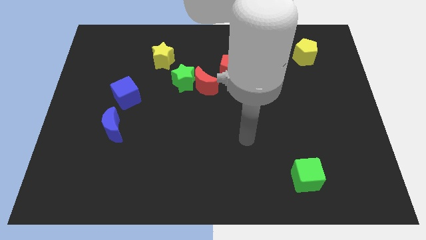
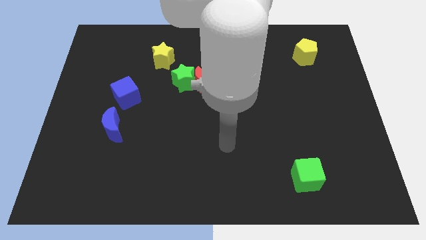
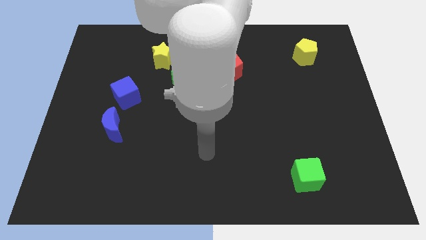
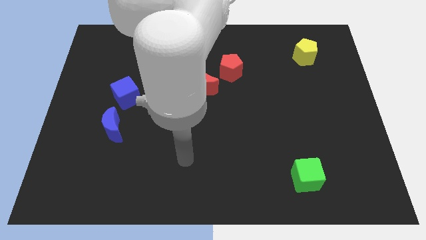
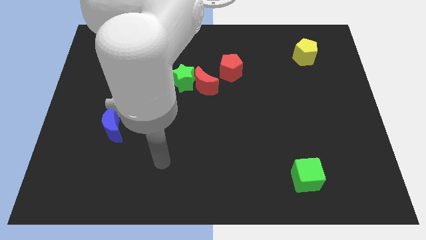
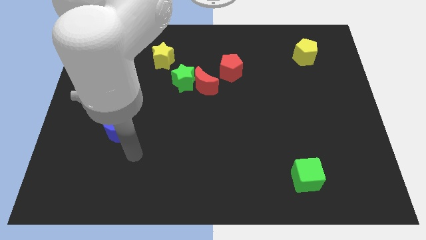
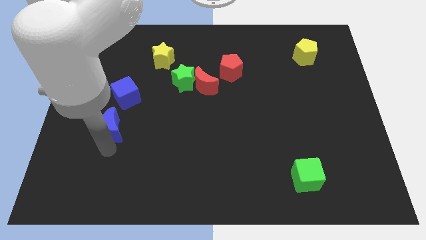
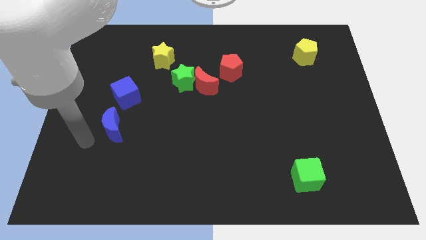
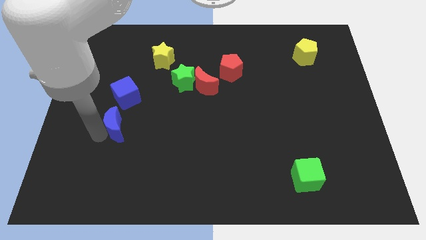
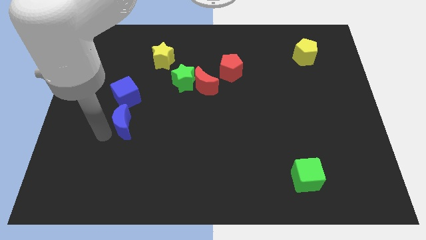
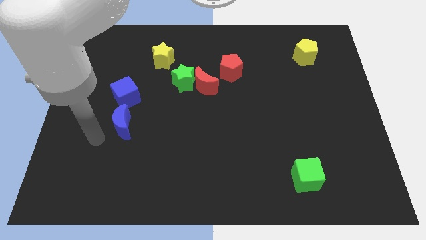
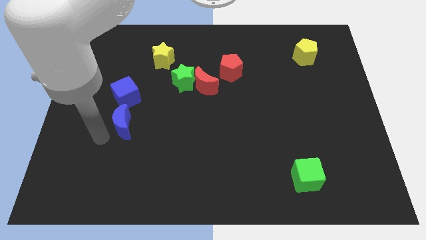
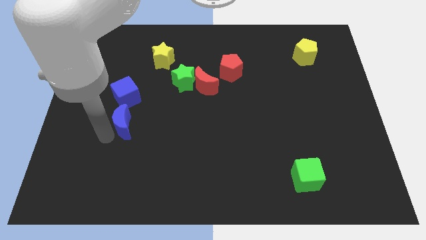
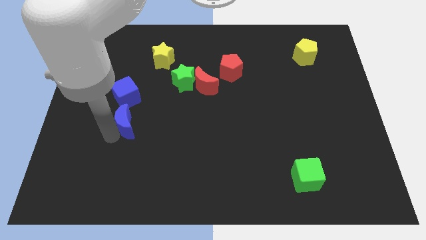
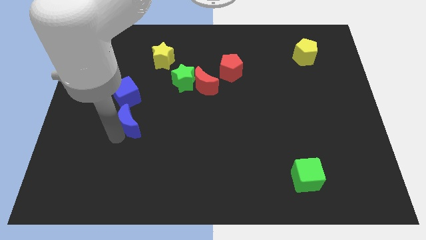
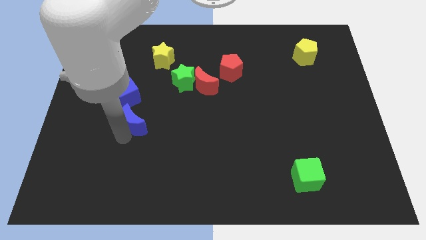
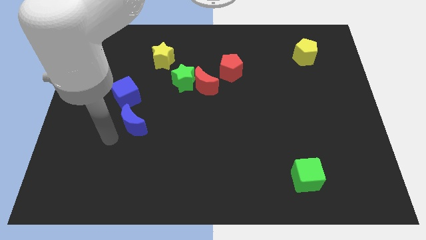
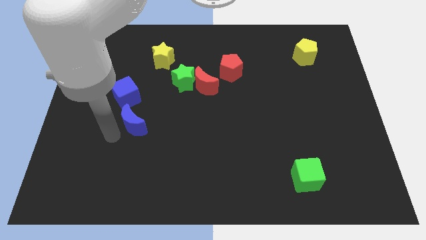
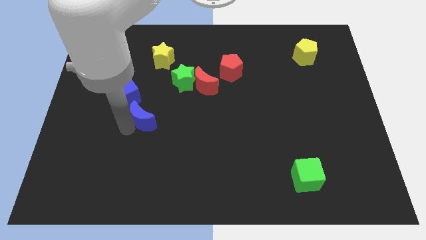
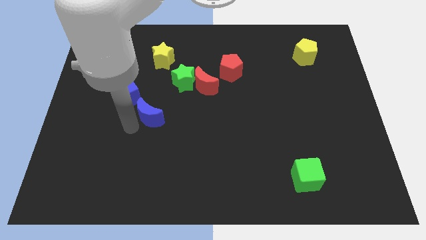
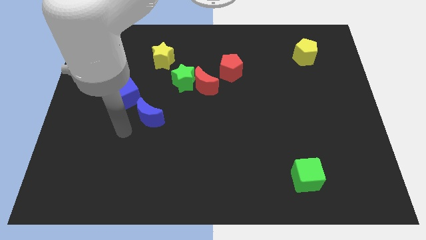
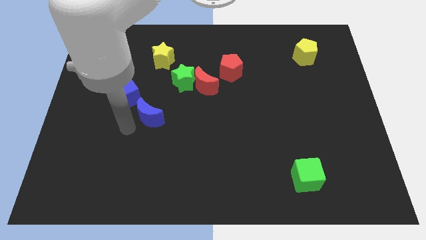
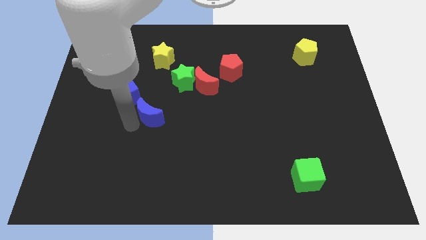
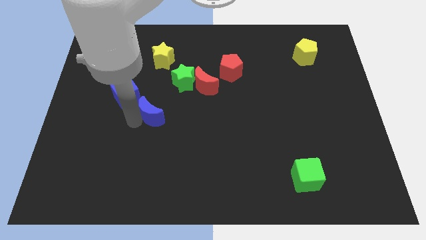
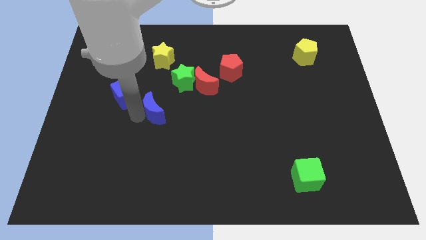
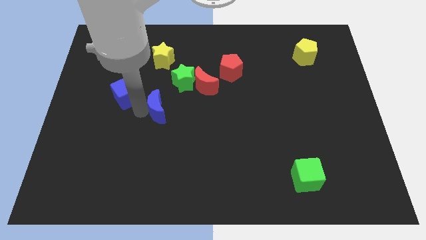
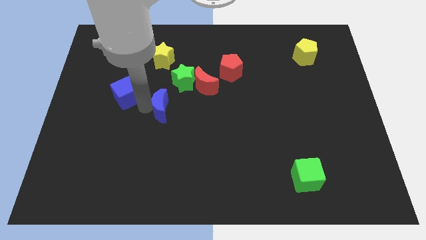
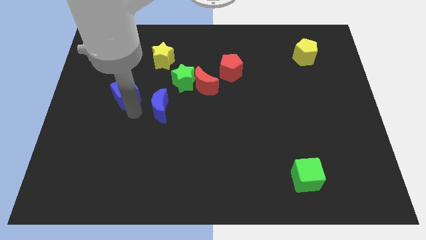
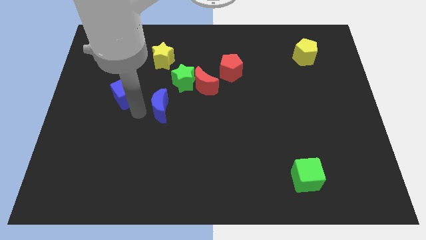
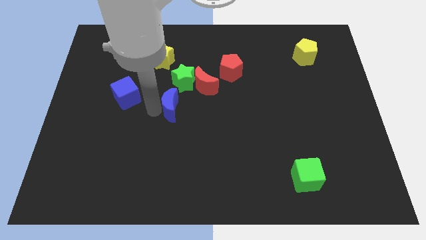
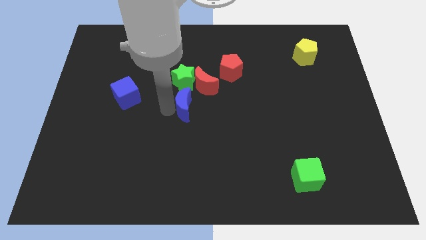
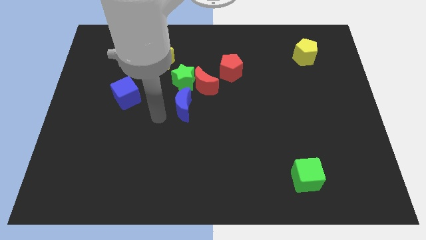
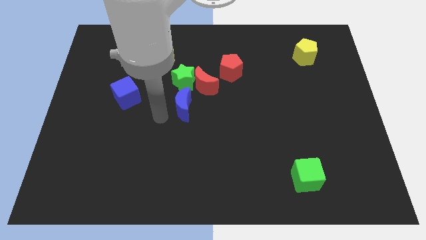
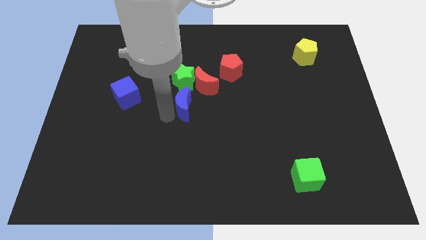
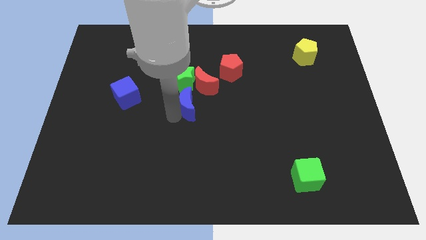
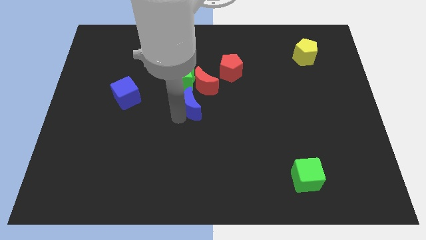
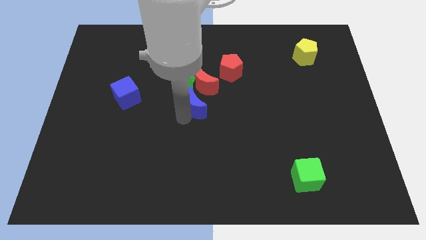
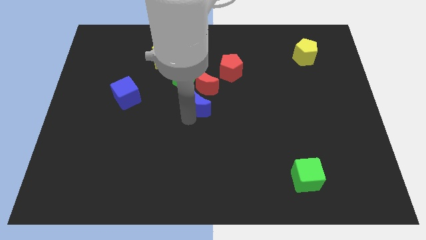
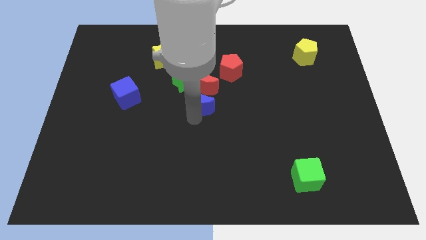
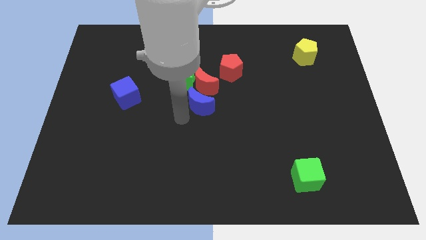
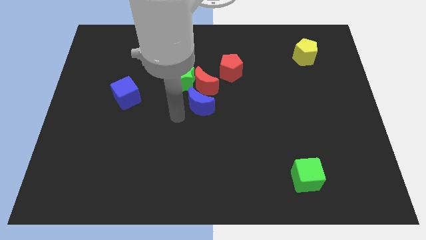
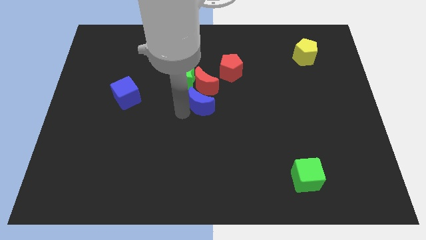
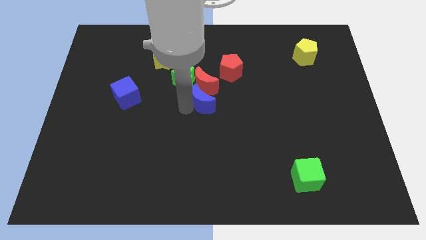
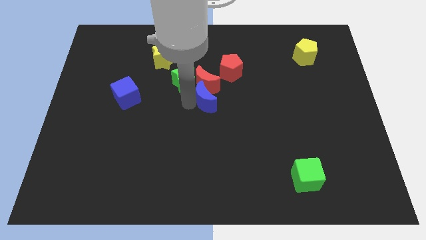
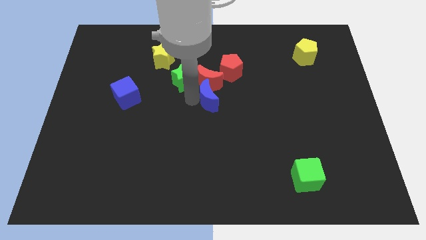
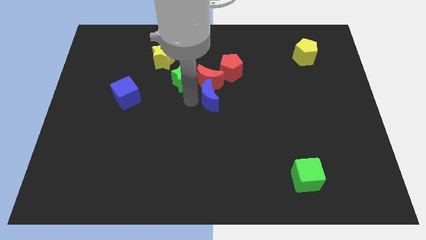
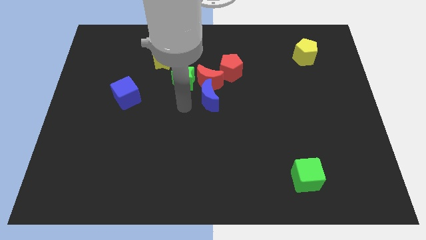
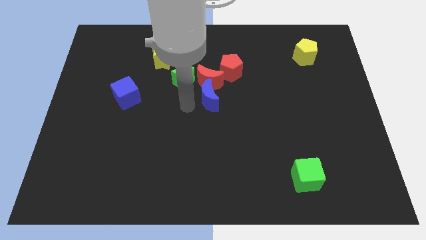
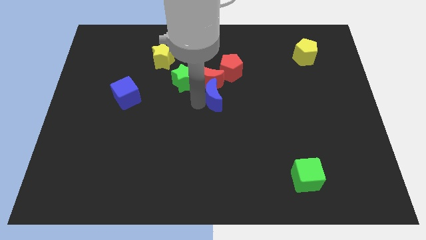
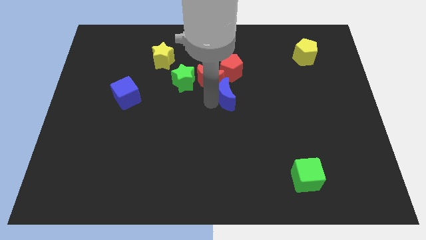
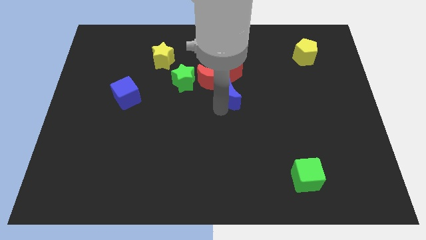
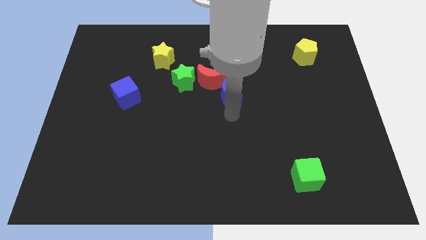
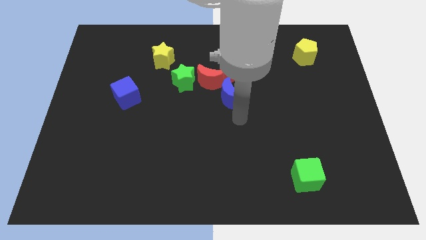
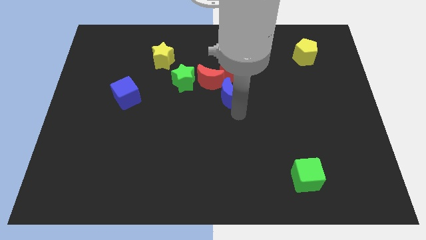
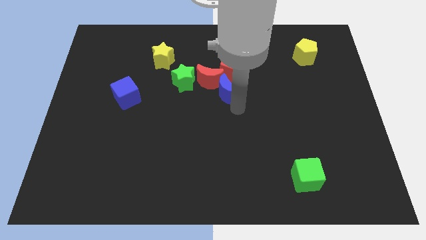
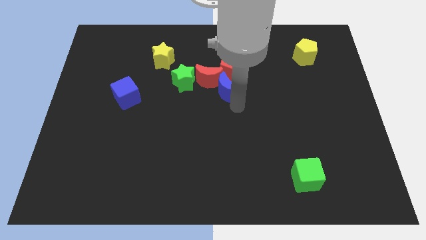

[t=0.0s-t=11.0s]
slide the blue moon diagonally up and to the right

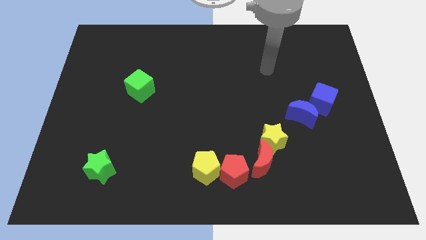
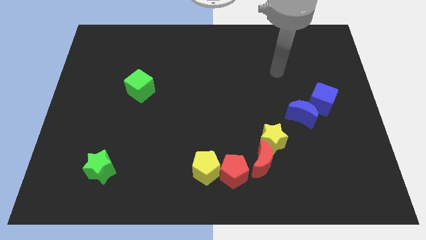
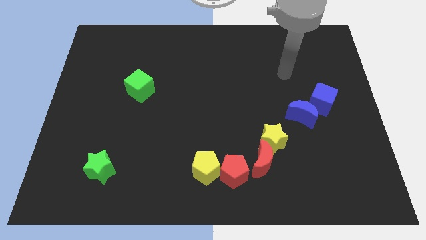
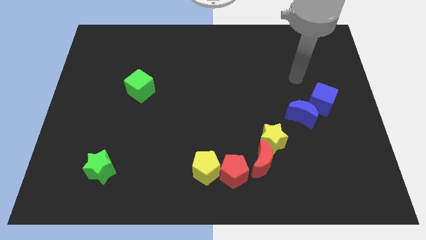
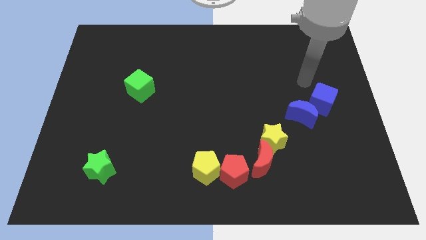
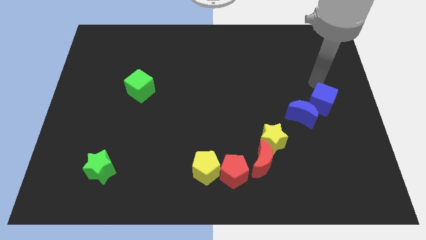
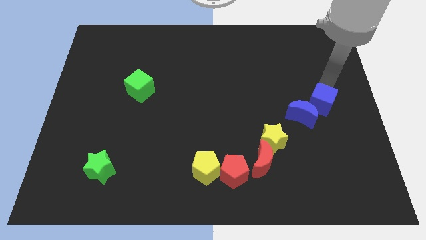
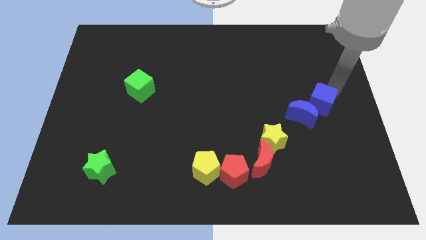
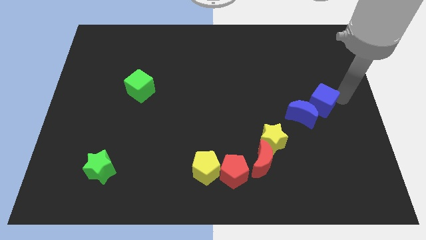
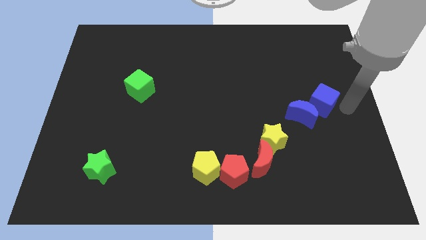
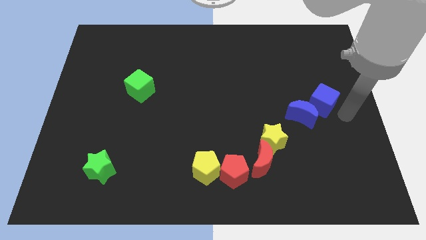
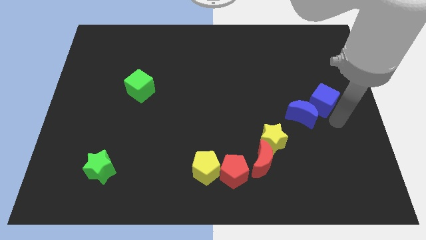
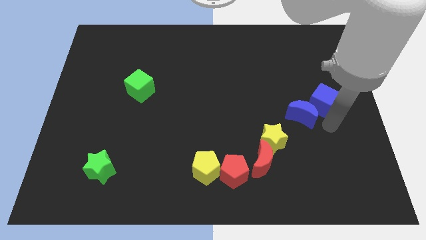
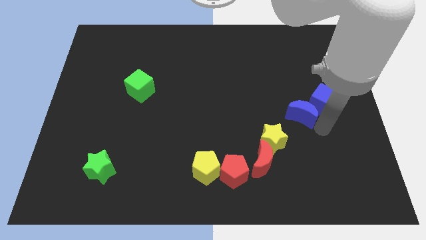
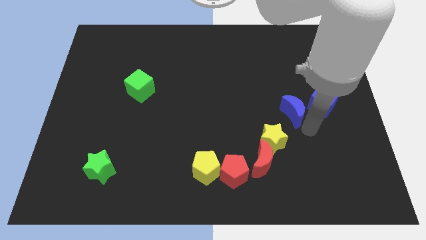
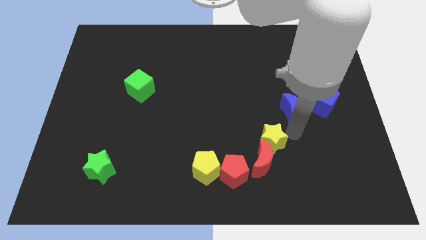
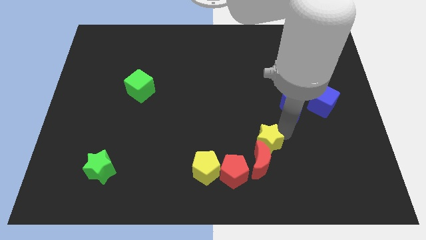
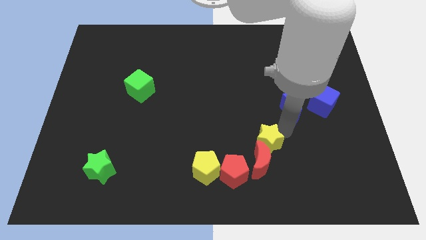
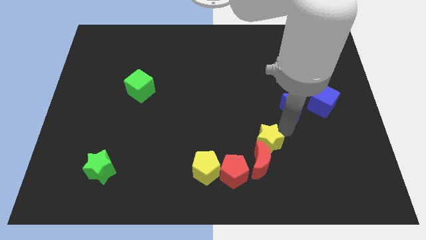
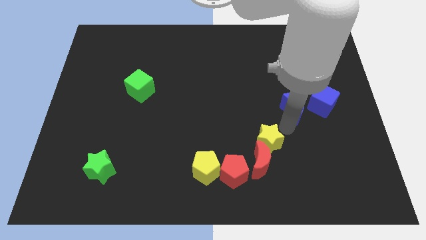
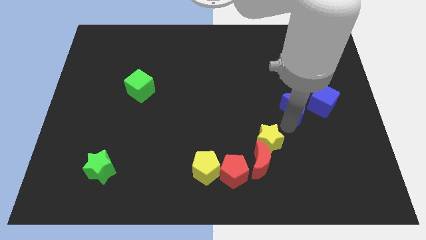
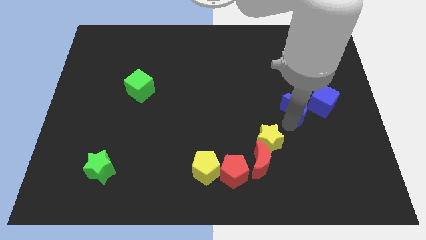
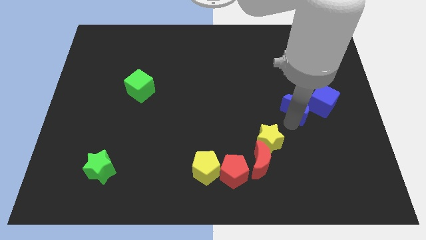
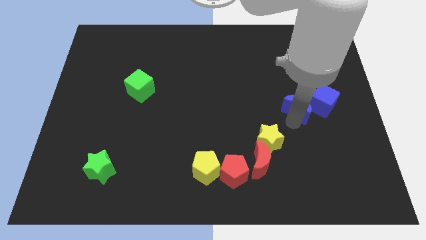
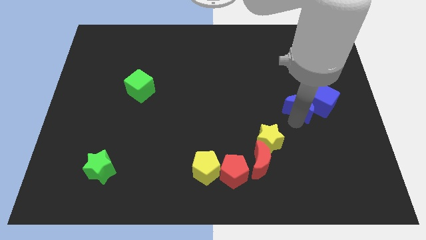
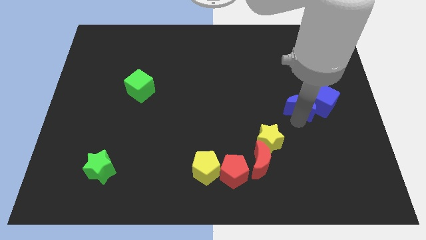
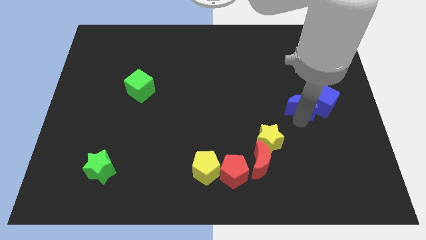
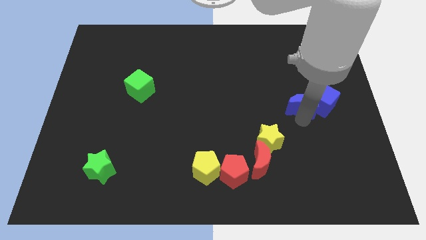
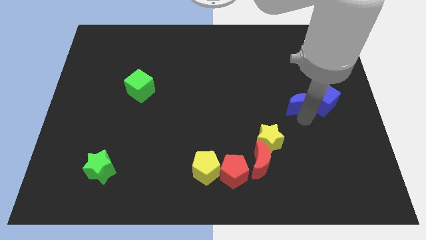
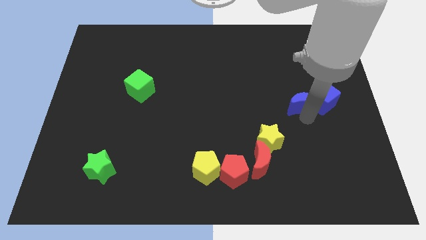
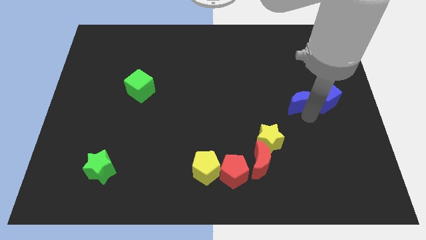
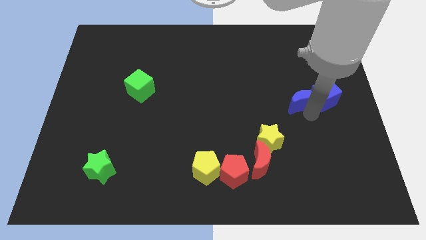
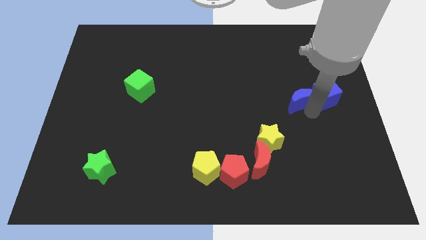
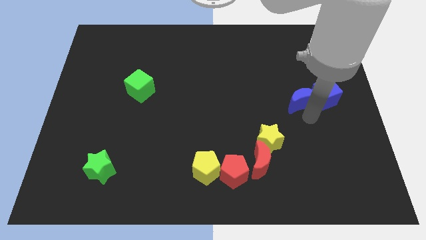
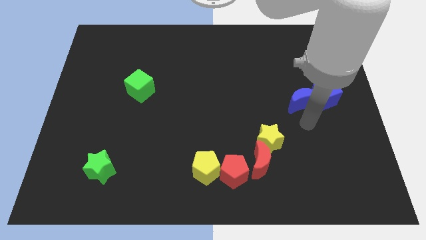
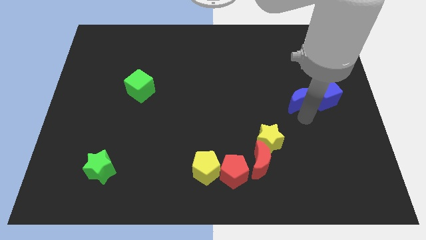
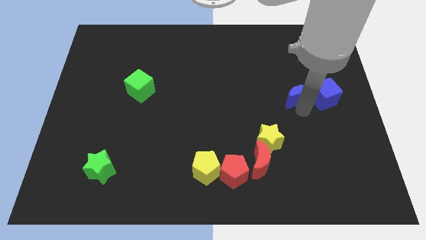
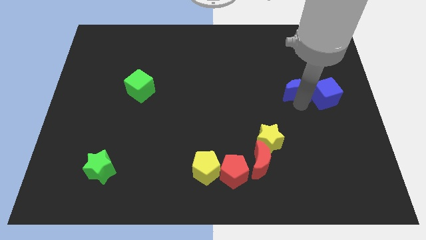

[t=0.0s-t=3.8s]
slightly push the blue moon upwards
